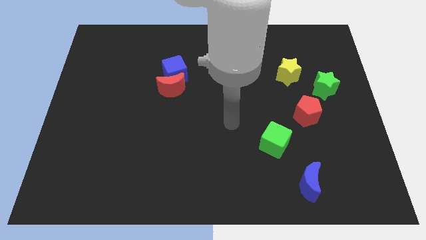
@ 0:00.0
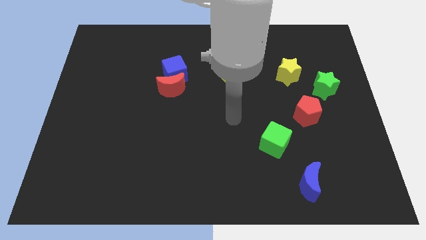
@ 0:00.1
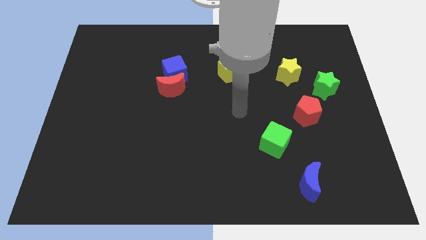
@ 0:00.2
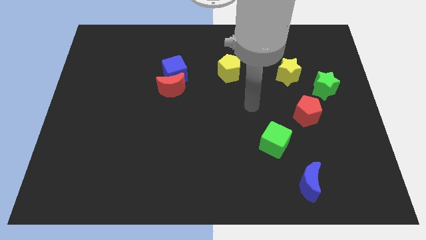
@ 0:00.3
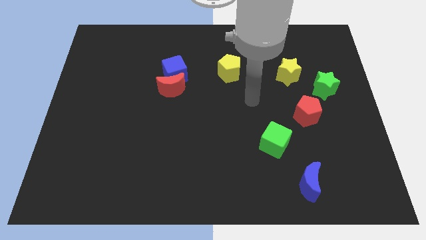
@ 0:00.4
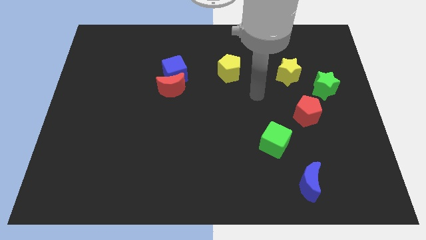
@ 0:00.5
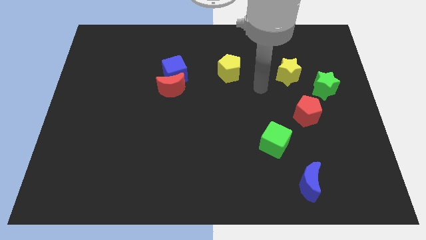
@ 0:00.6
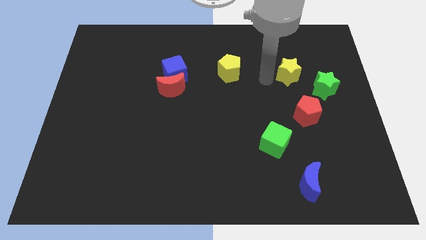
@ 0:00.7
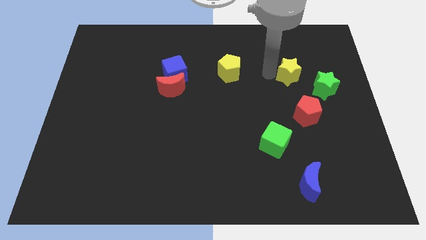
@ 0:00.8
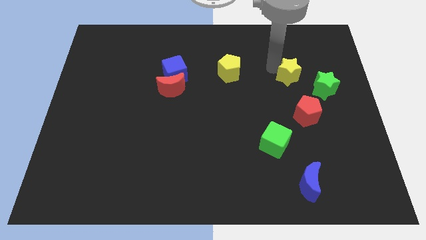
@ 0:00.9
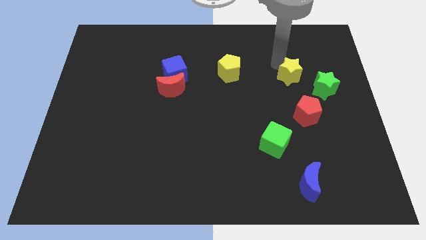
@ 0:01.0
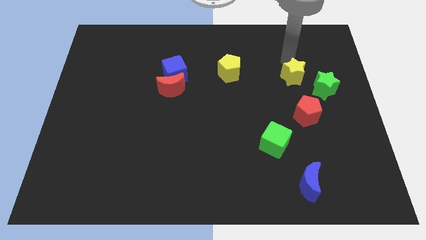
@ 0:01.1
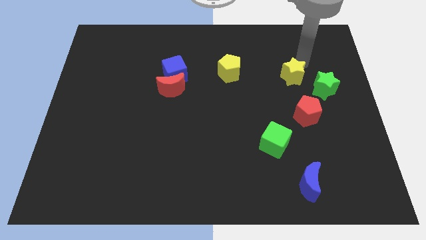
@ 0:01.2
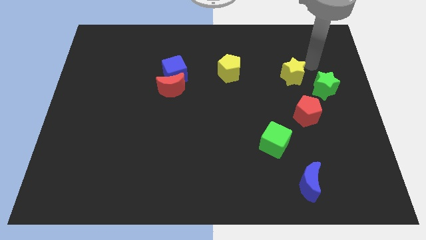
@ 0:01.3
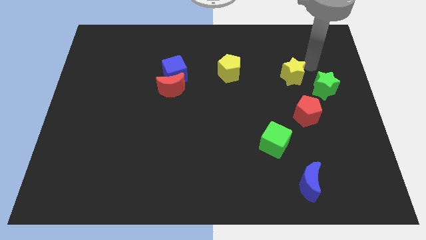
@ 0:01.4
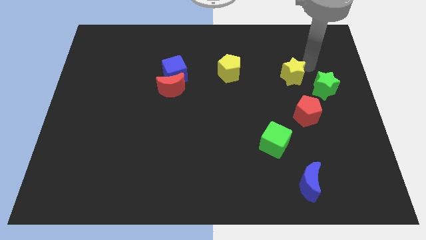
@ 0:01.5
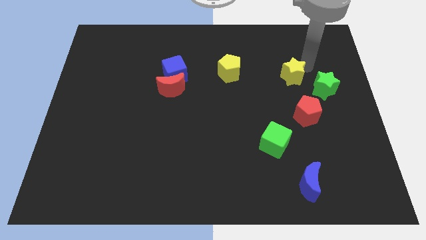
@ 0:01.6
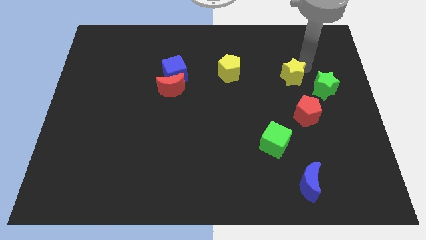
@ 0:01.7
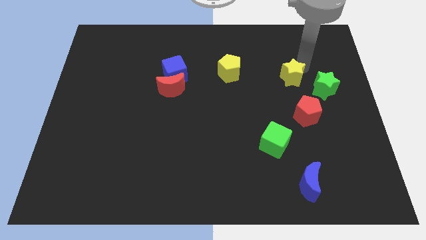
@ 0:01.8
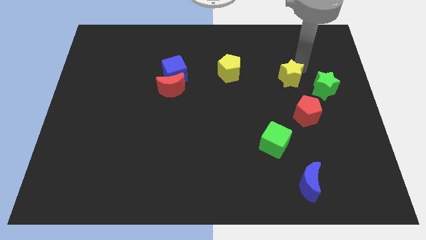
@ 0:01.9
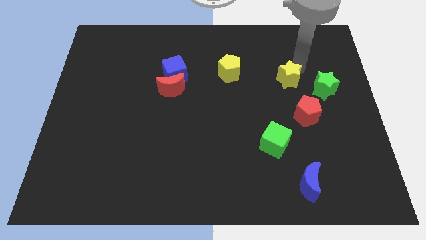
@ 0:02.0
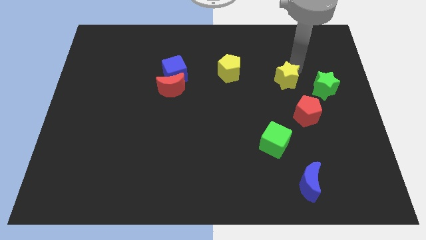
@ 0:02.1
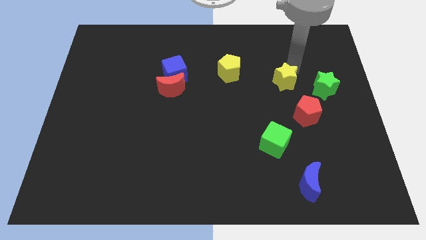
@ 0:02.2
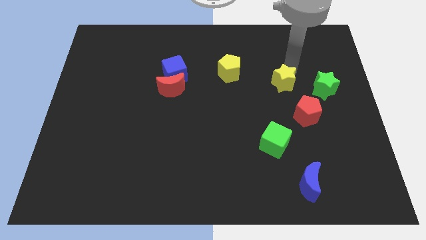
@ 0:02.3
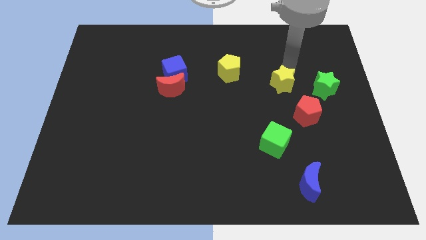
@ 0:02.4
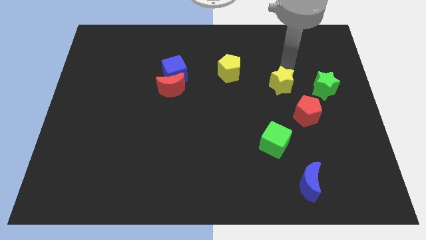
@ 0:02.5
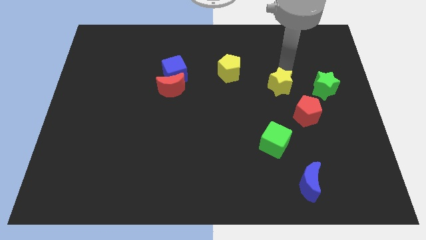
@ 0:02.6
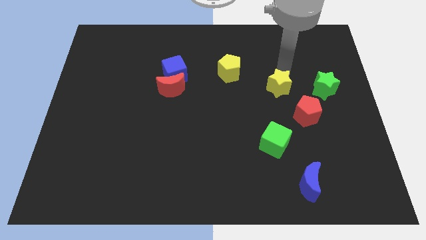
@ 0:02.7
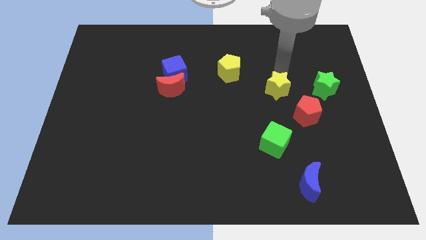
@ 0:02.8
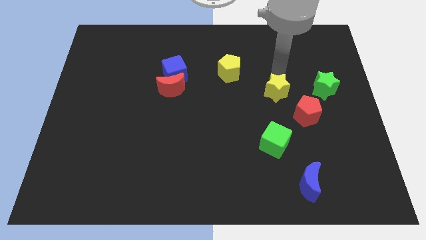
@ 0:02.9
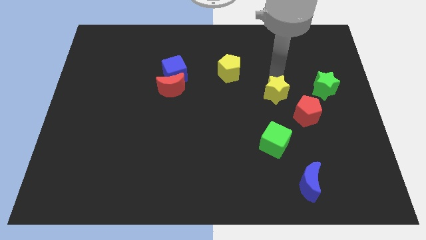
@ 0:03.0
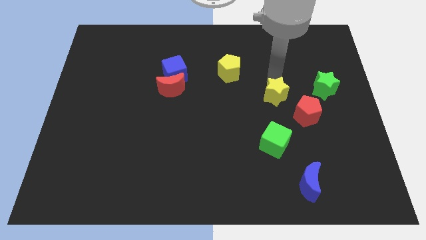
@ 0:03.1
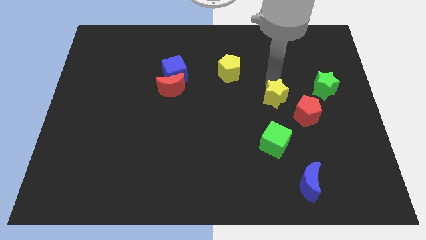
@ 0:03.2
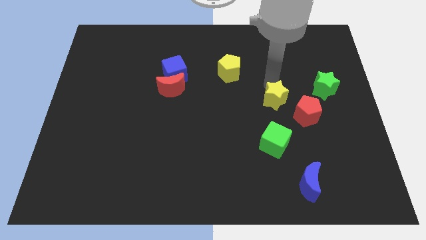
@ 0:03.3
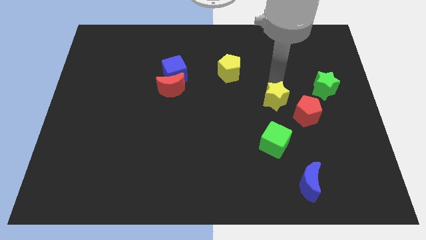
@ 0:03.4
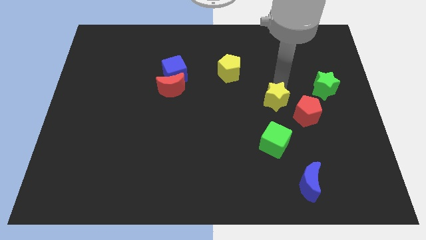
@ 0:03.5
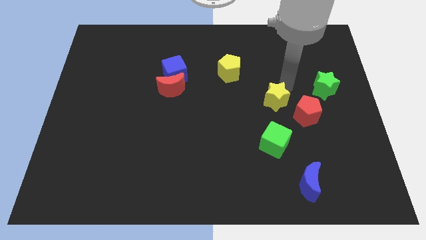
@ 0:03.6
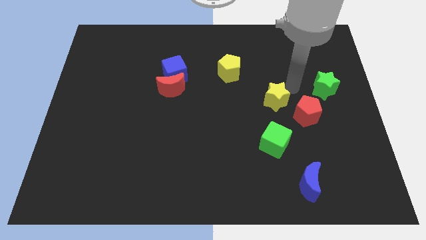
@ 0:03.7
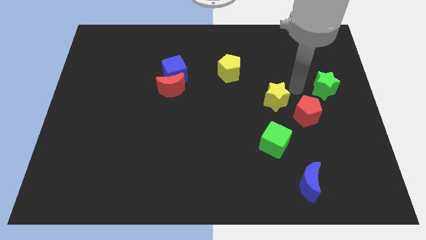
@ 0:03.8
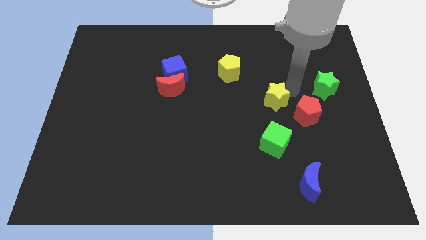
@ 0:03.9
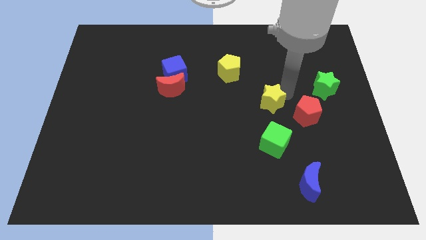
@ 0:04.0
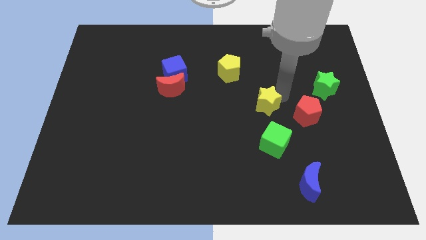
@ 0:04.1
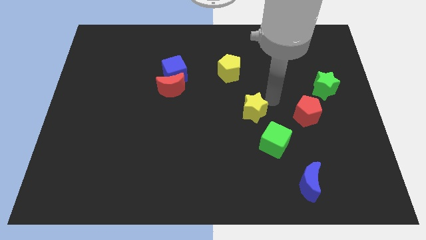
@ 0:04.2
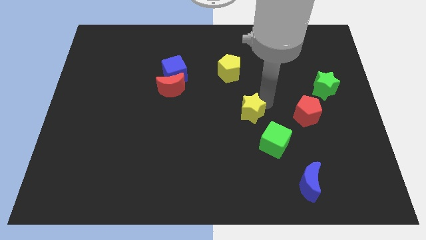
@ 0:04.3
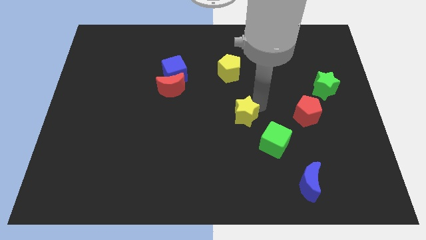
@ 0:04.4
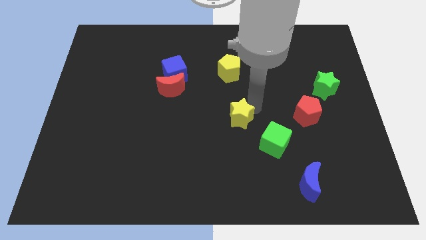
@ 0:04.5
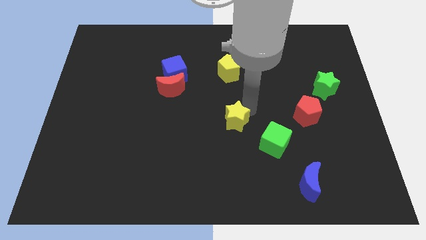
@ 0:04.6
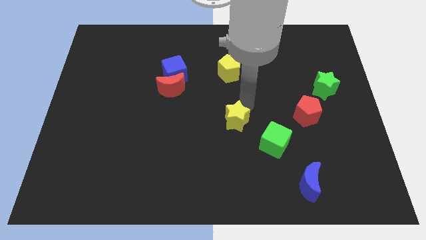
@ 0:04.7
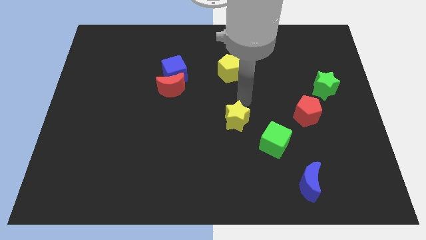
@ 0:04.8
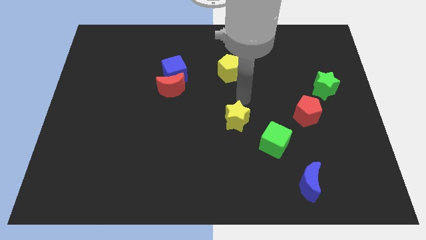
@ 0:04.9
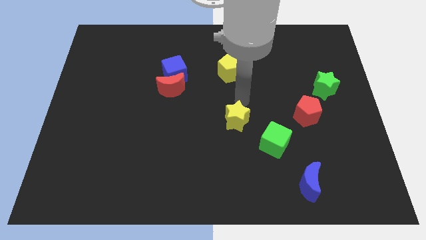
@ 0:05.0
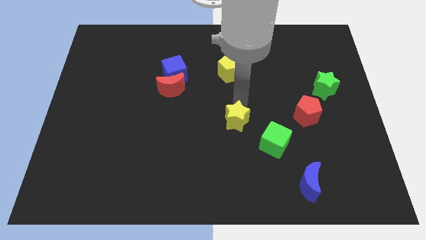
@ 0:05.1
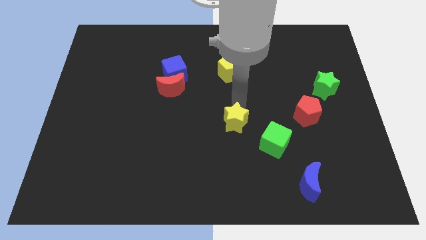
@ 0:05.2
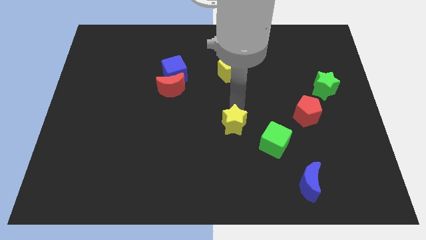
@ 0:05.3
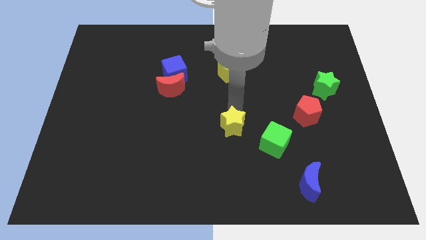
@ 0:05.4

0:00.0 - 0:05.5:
move the yellow star just left of the green cube
